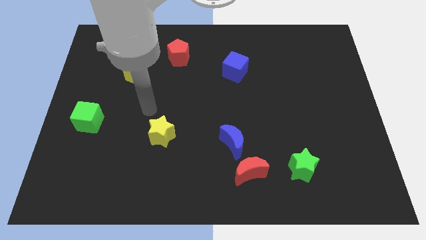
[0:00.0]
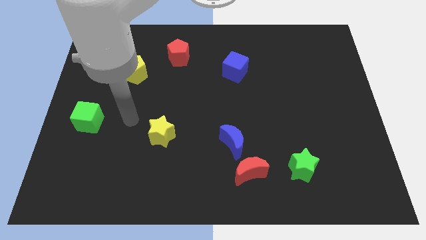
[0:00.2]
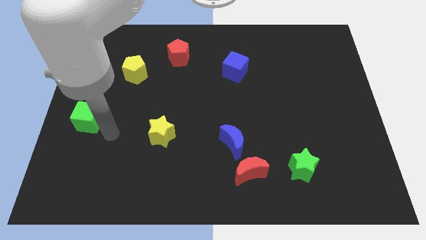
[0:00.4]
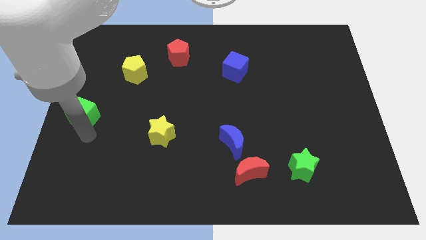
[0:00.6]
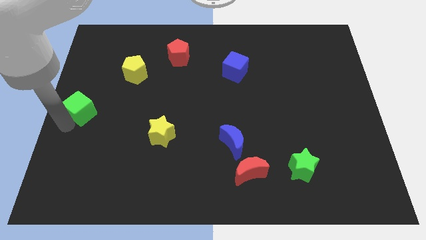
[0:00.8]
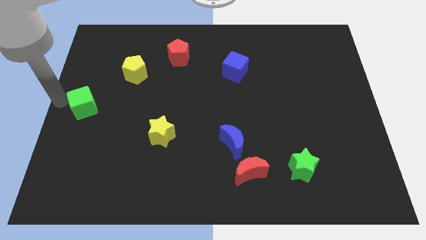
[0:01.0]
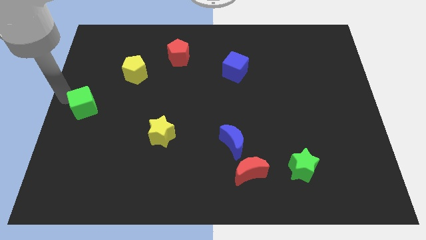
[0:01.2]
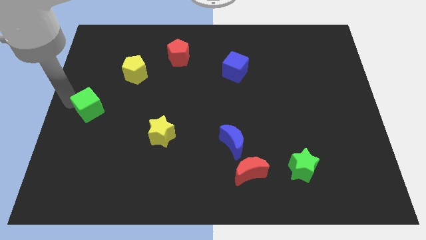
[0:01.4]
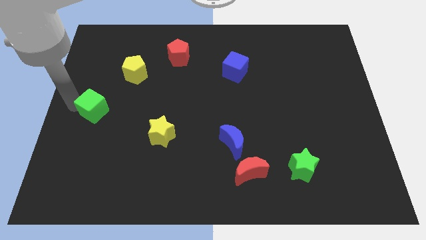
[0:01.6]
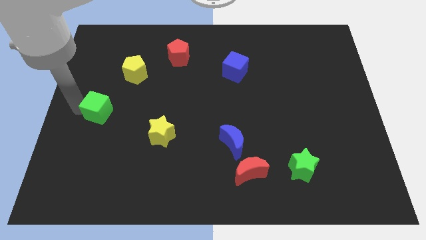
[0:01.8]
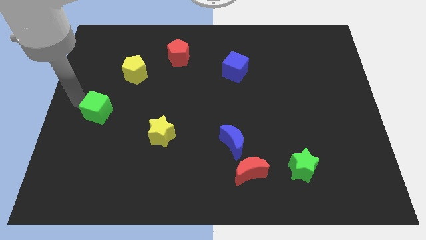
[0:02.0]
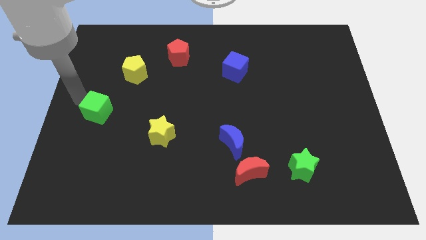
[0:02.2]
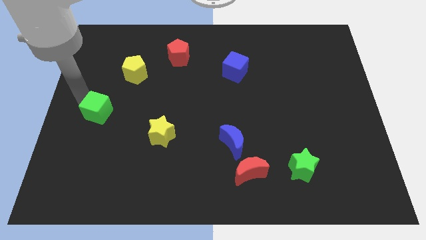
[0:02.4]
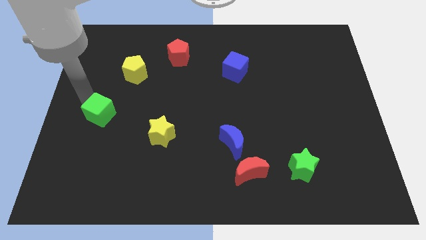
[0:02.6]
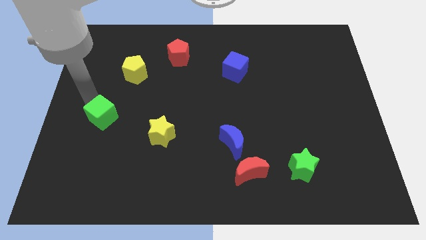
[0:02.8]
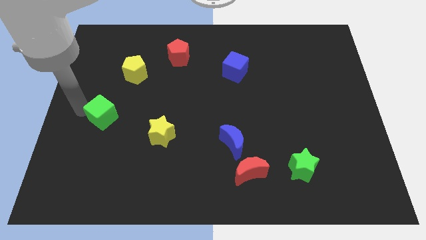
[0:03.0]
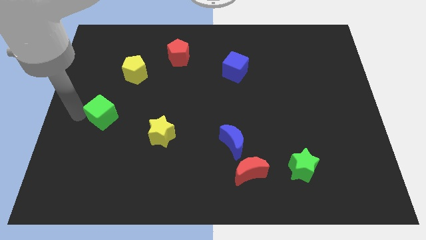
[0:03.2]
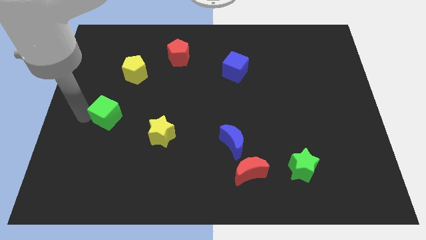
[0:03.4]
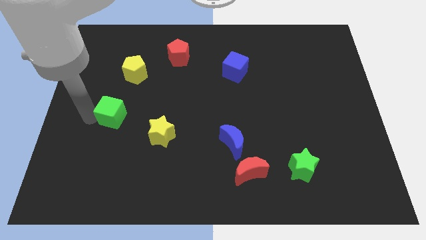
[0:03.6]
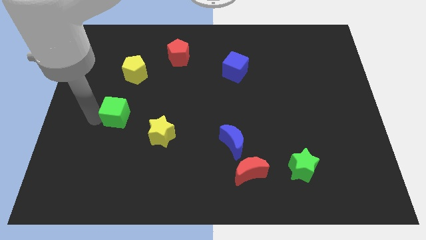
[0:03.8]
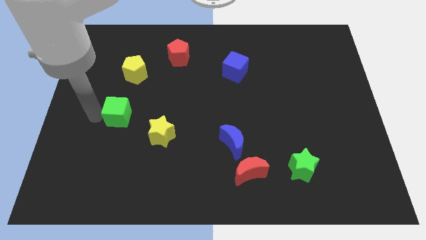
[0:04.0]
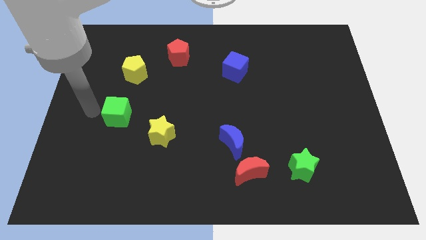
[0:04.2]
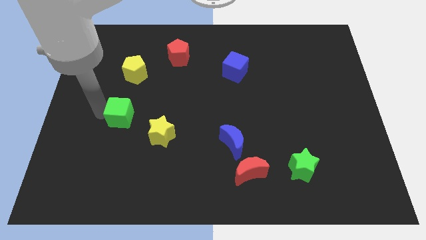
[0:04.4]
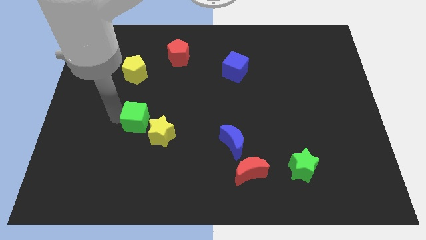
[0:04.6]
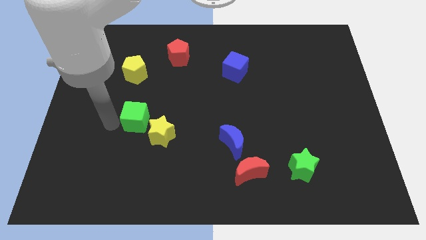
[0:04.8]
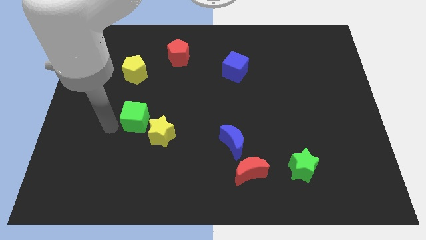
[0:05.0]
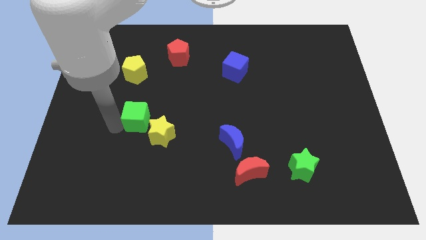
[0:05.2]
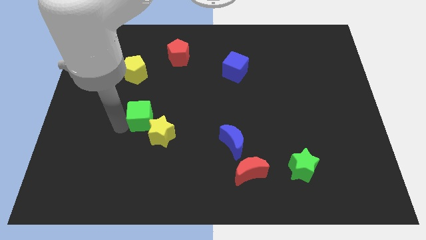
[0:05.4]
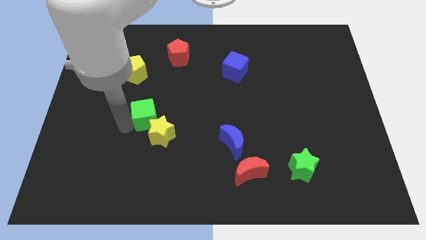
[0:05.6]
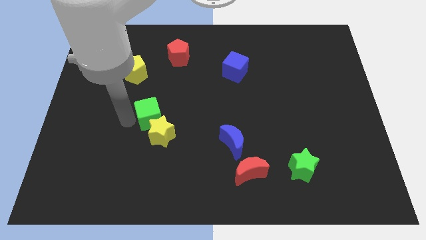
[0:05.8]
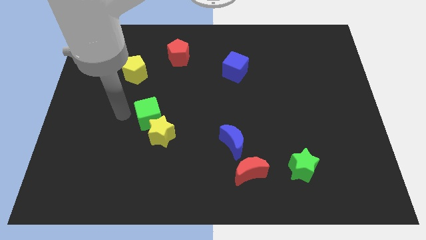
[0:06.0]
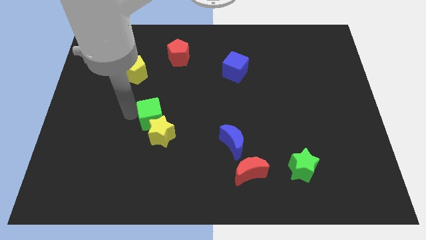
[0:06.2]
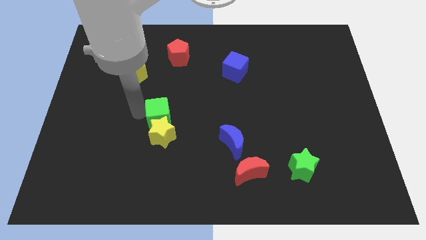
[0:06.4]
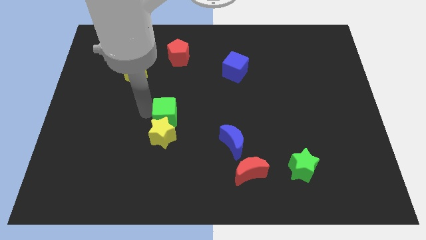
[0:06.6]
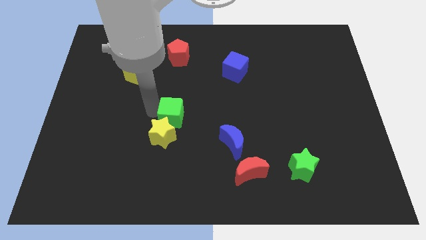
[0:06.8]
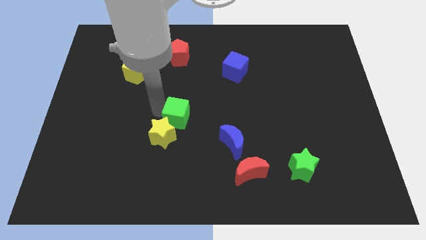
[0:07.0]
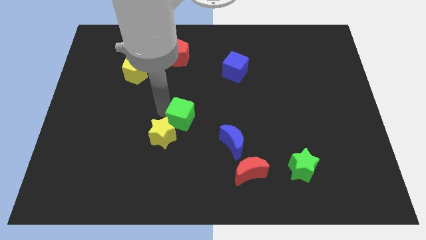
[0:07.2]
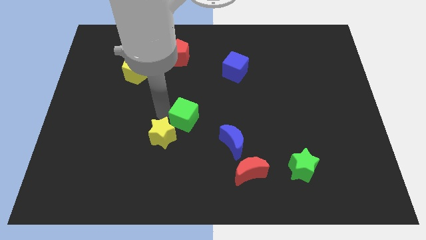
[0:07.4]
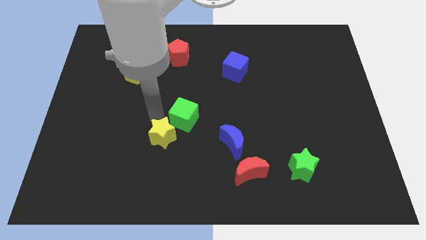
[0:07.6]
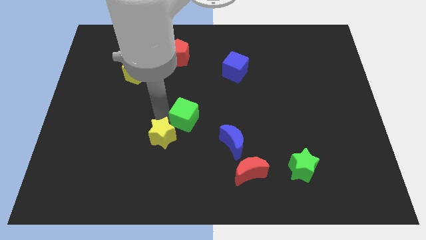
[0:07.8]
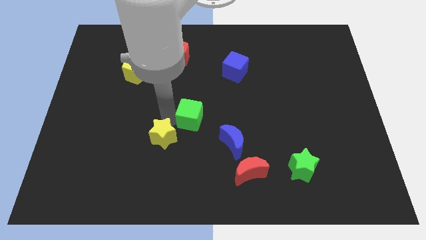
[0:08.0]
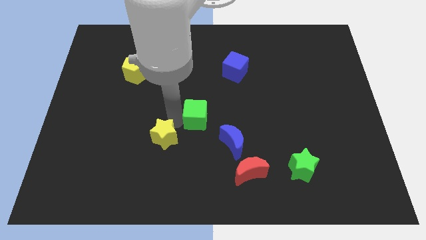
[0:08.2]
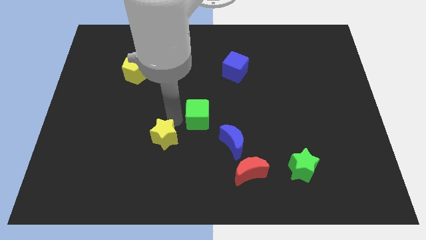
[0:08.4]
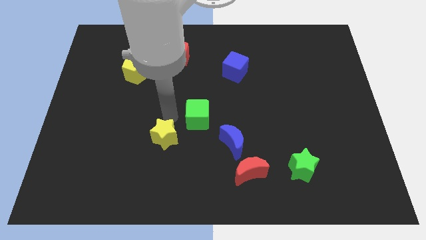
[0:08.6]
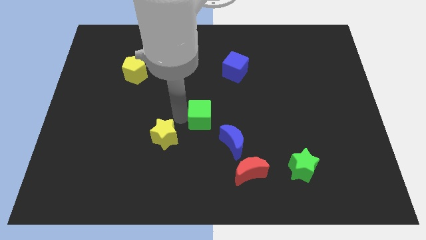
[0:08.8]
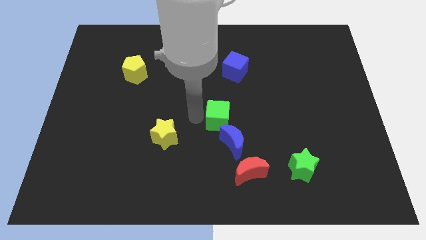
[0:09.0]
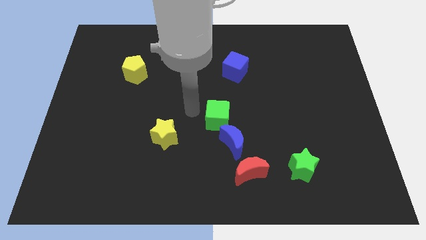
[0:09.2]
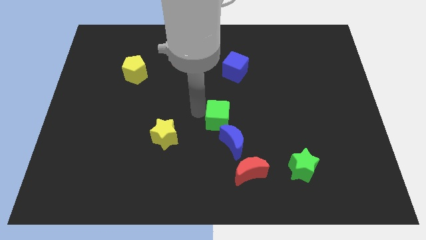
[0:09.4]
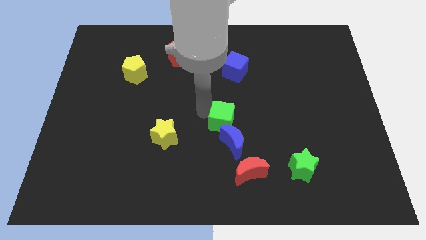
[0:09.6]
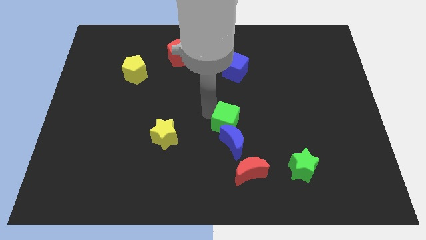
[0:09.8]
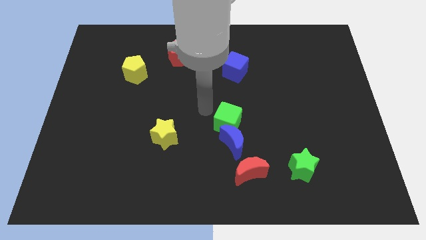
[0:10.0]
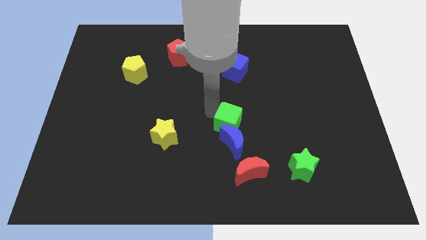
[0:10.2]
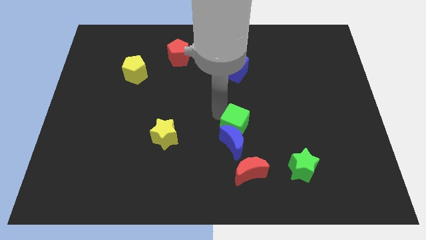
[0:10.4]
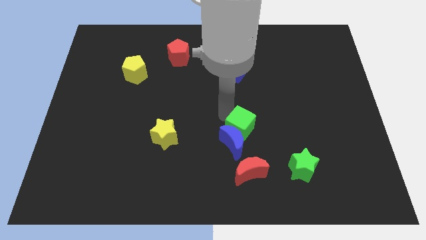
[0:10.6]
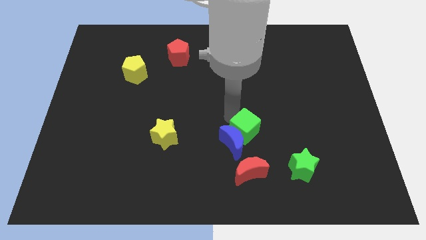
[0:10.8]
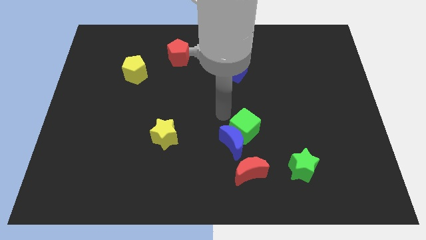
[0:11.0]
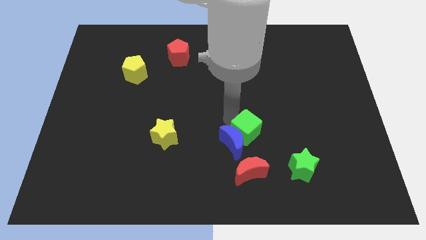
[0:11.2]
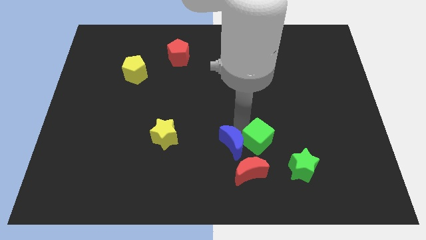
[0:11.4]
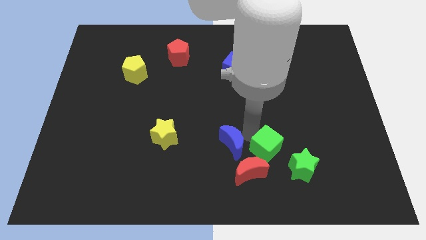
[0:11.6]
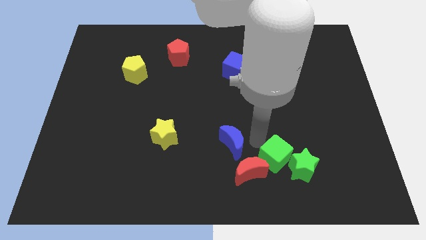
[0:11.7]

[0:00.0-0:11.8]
put the green cube towards the green star

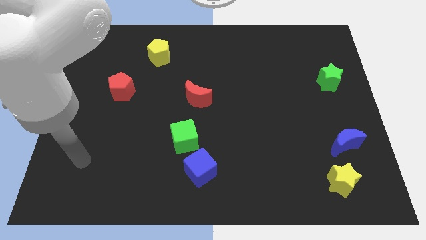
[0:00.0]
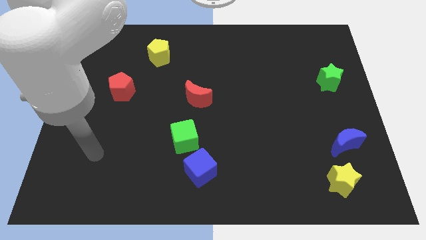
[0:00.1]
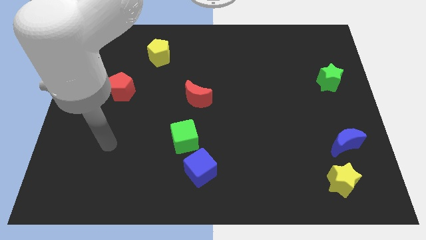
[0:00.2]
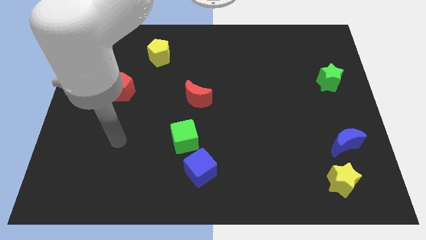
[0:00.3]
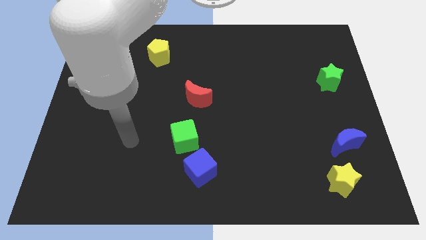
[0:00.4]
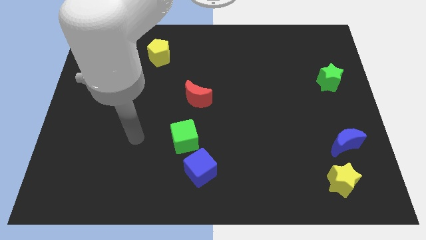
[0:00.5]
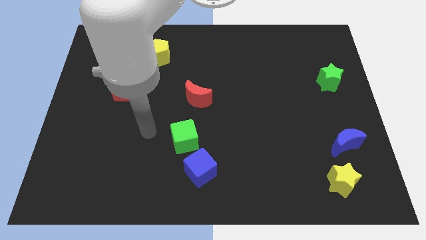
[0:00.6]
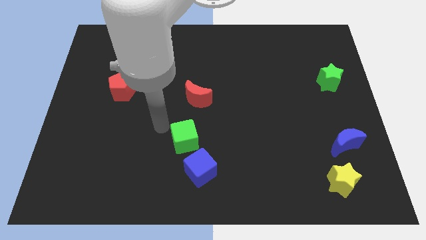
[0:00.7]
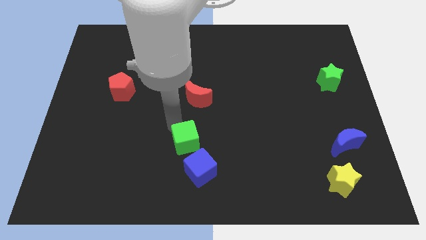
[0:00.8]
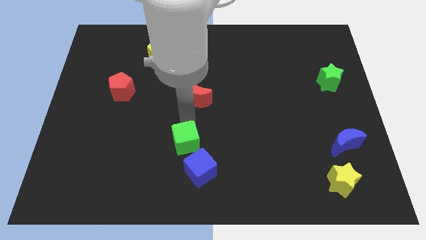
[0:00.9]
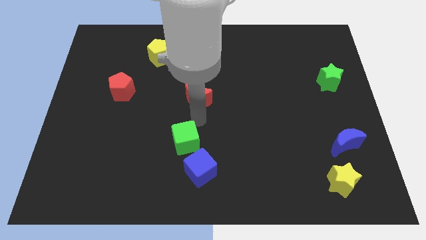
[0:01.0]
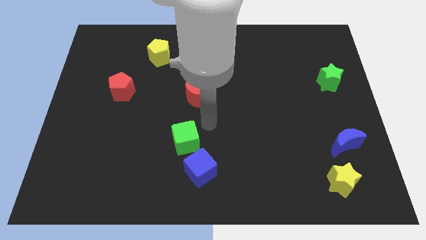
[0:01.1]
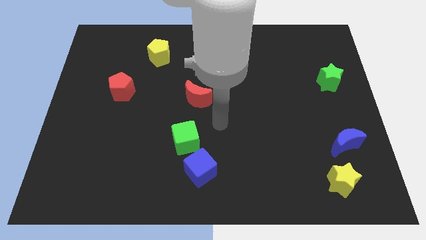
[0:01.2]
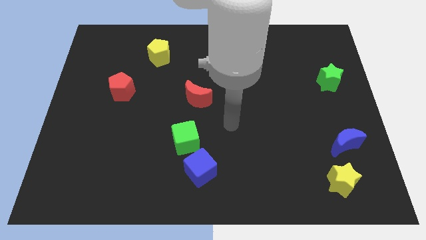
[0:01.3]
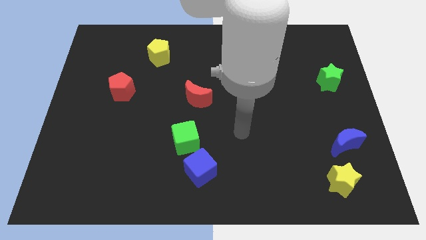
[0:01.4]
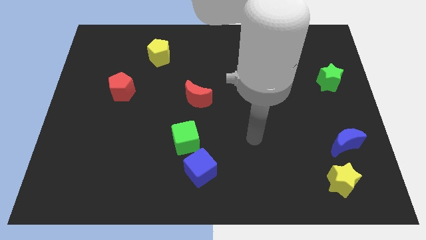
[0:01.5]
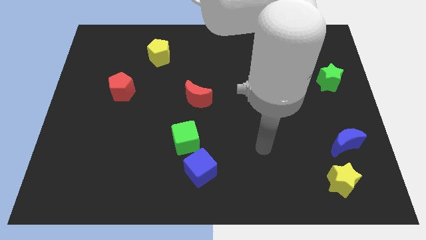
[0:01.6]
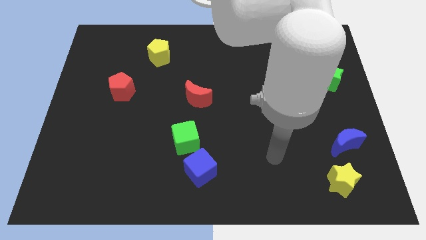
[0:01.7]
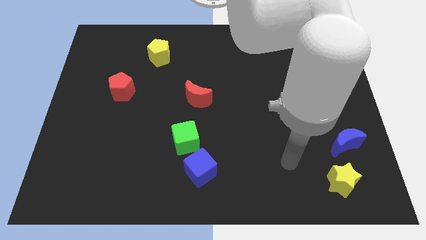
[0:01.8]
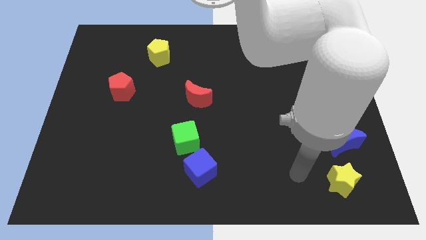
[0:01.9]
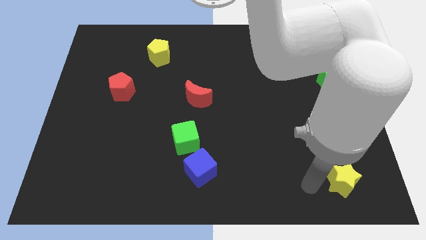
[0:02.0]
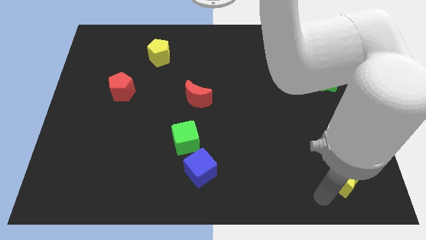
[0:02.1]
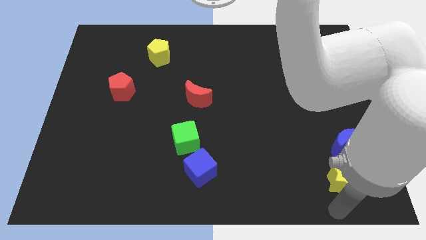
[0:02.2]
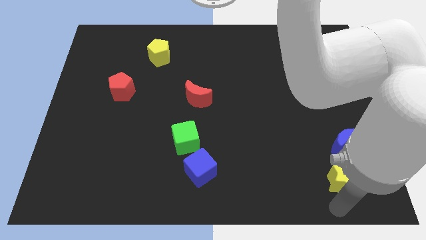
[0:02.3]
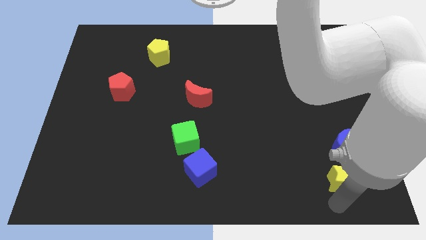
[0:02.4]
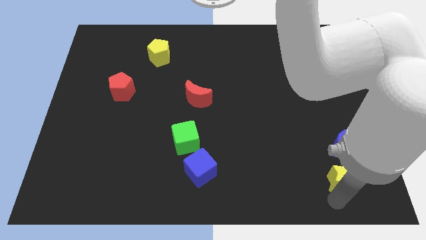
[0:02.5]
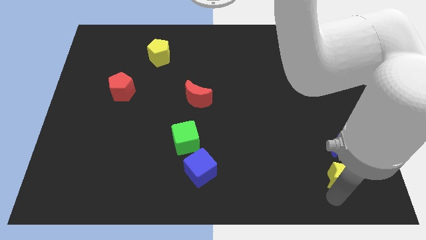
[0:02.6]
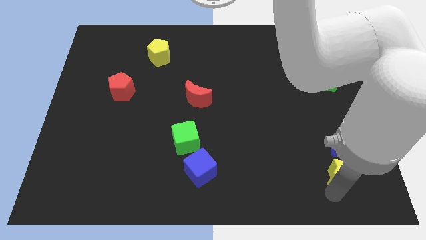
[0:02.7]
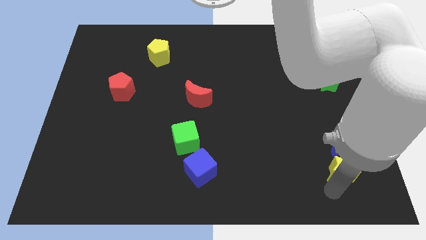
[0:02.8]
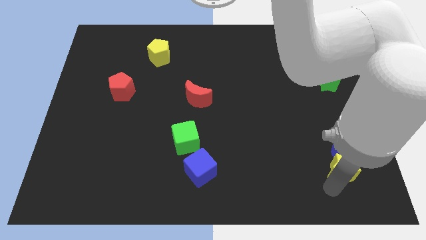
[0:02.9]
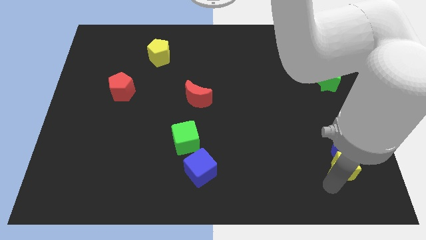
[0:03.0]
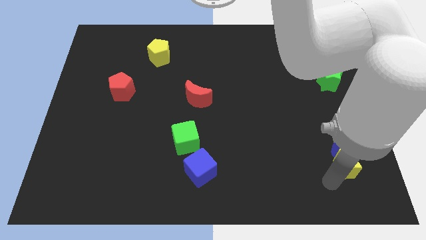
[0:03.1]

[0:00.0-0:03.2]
put the yellow star next to the blue moon
